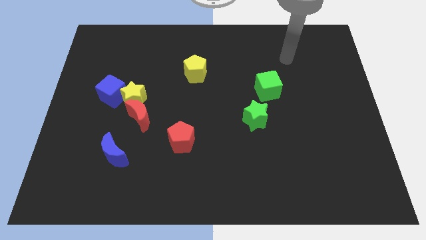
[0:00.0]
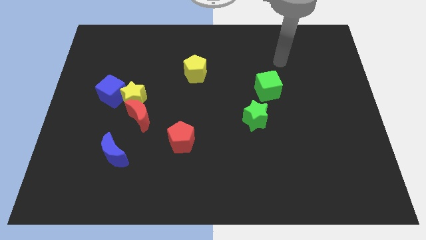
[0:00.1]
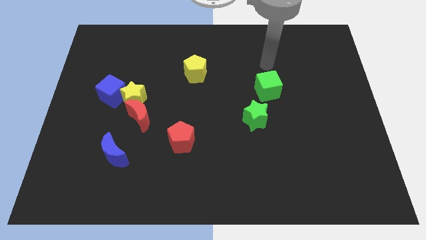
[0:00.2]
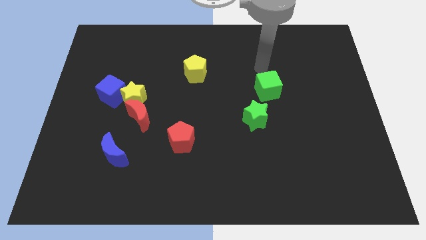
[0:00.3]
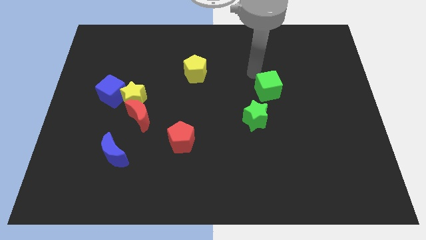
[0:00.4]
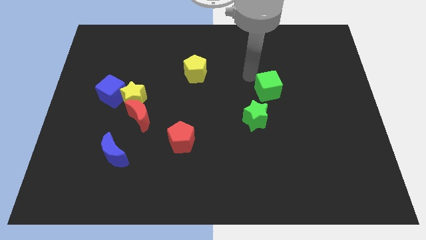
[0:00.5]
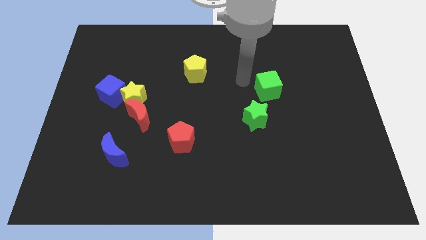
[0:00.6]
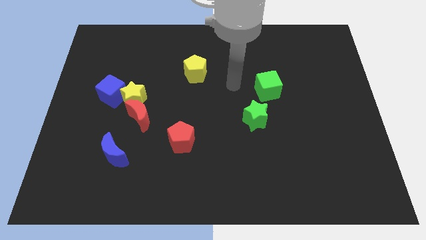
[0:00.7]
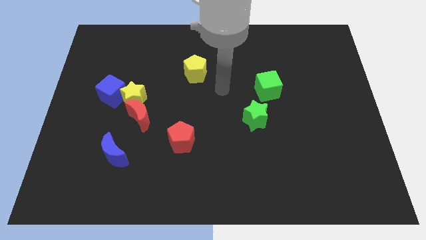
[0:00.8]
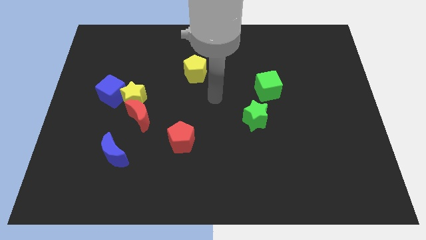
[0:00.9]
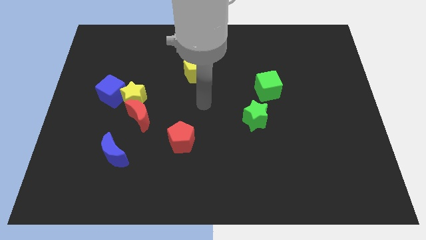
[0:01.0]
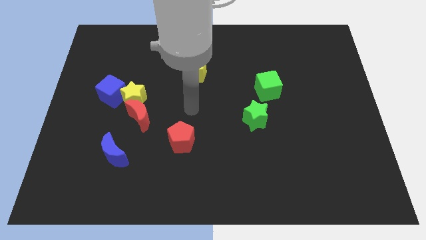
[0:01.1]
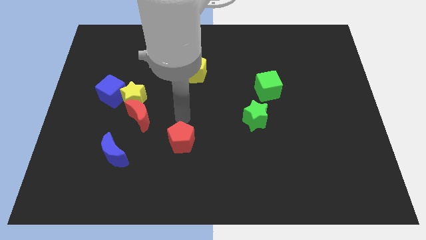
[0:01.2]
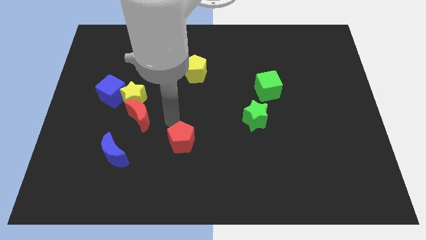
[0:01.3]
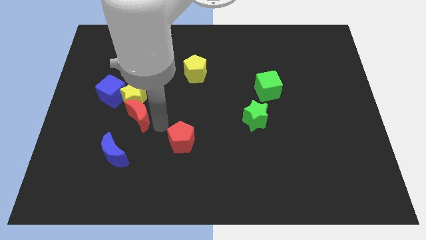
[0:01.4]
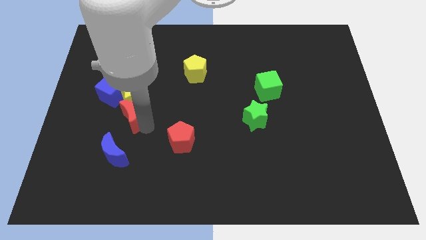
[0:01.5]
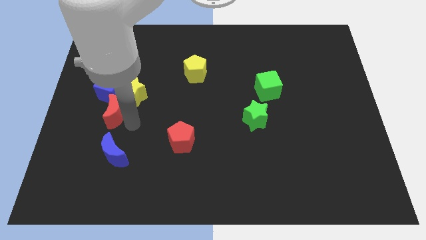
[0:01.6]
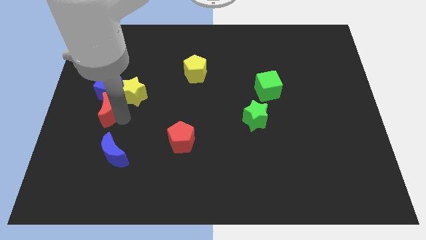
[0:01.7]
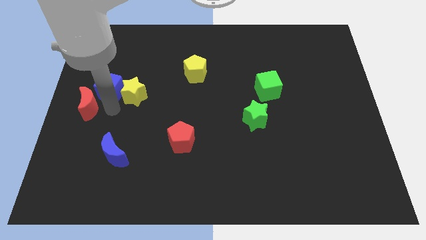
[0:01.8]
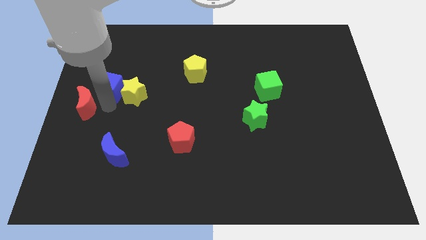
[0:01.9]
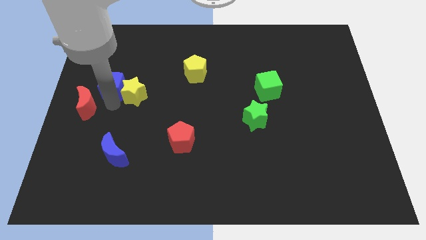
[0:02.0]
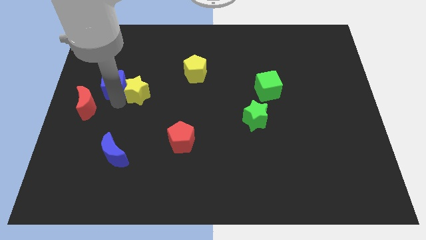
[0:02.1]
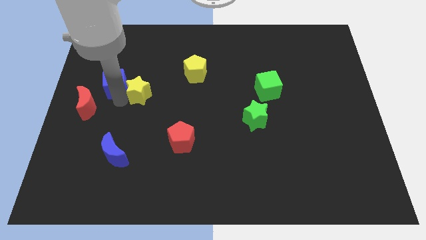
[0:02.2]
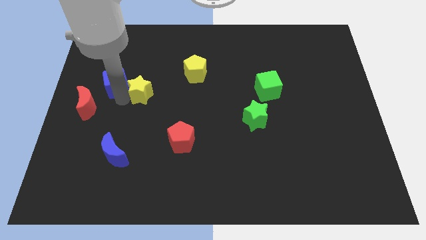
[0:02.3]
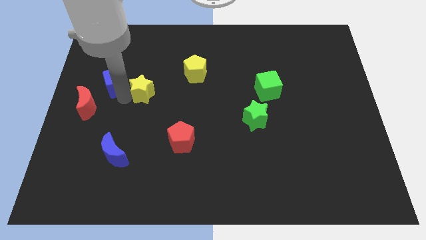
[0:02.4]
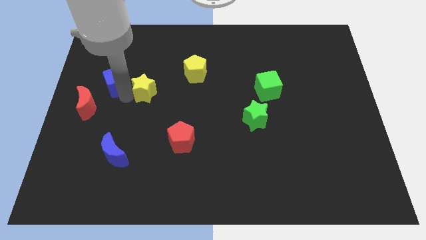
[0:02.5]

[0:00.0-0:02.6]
pull the yellow star apart from the red moon and blue cube

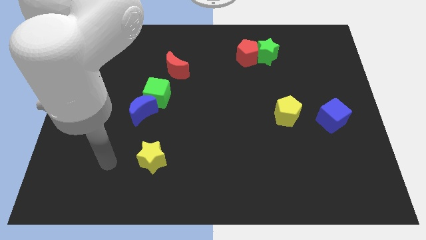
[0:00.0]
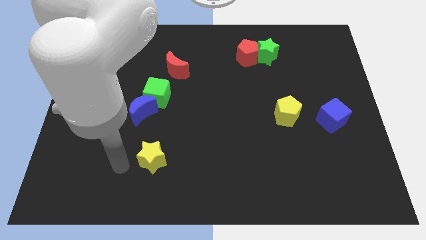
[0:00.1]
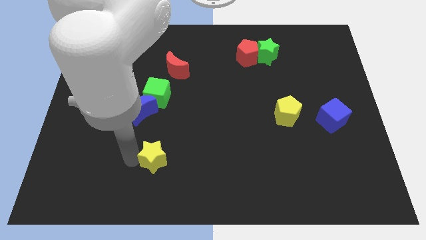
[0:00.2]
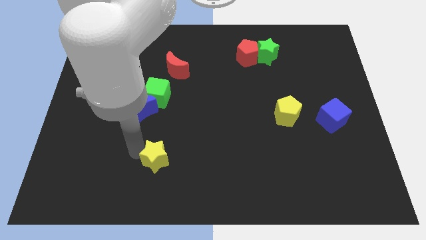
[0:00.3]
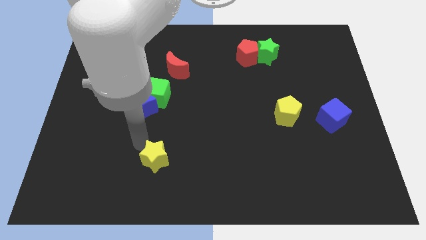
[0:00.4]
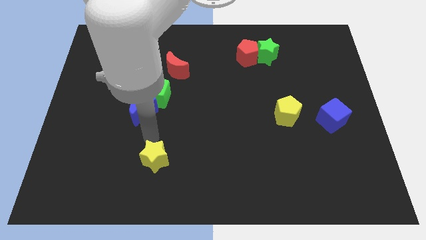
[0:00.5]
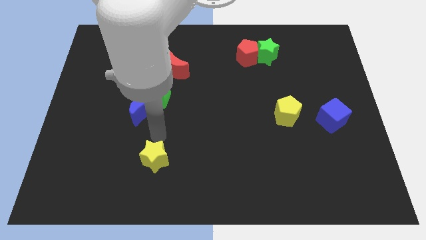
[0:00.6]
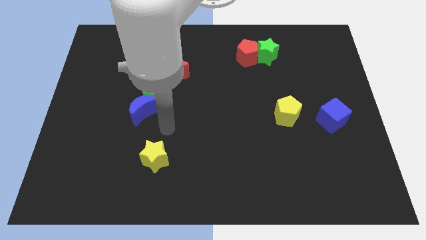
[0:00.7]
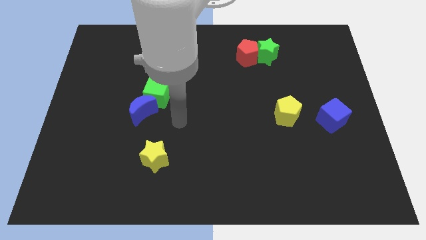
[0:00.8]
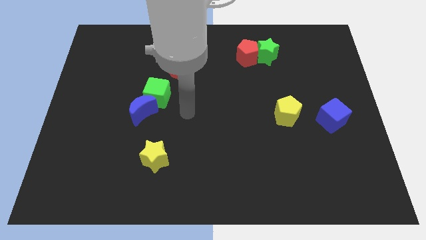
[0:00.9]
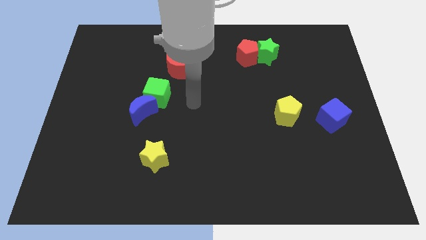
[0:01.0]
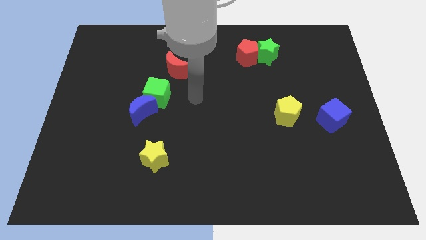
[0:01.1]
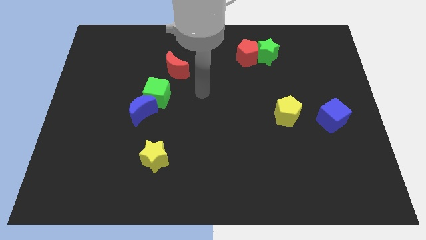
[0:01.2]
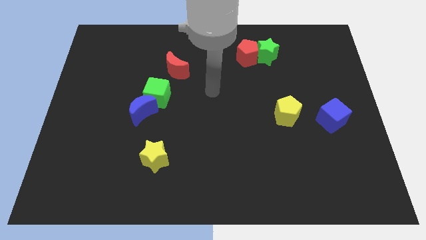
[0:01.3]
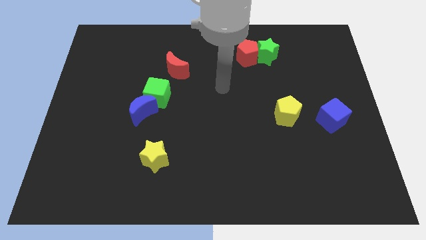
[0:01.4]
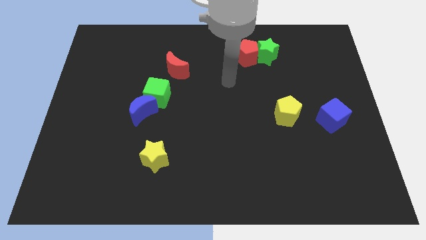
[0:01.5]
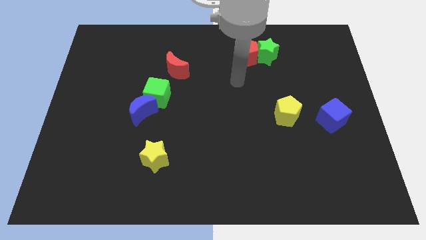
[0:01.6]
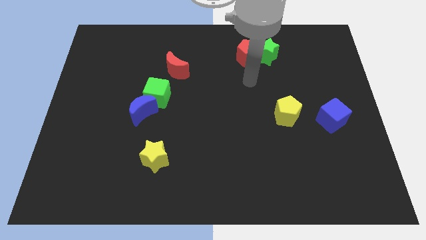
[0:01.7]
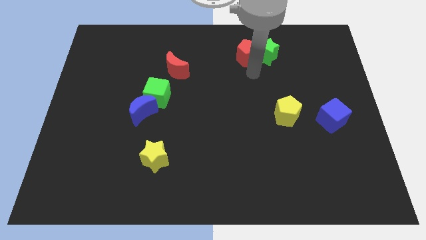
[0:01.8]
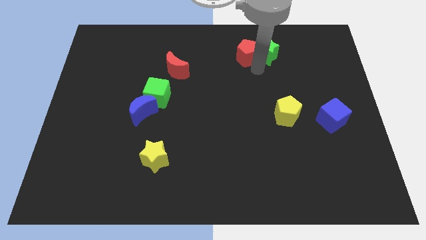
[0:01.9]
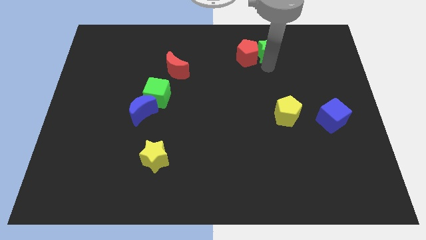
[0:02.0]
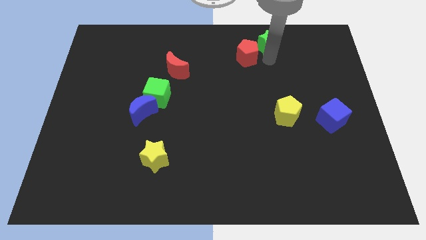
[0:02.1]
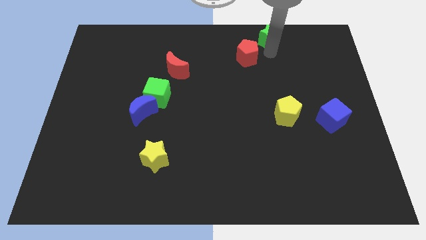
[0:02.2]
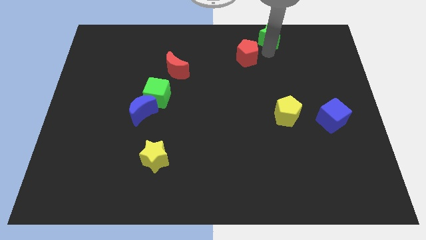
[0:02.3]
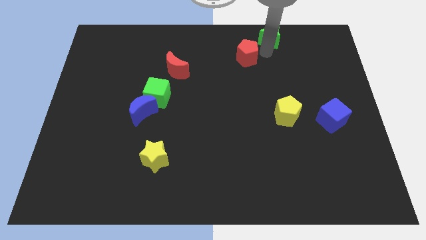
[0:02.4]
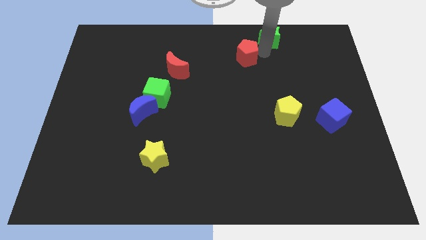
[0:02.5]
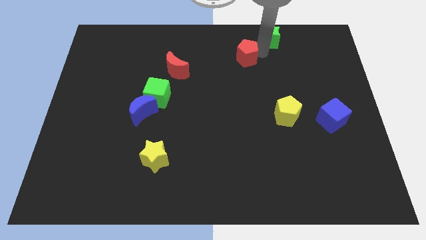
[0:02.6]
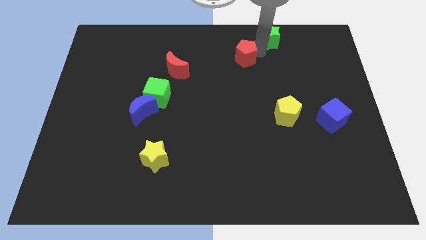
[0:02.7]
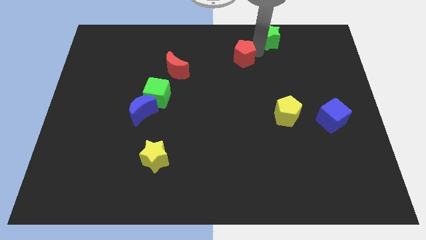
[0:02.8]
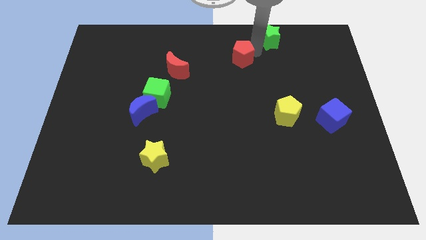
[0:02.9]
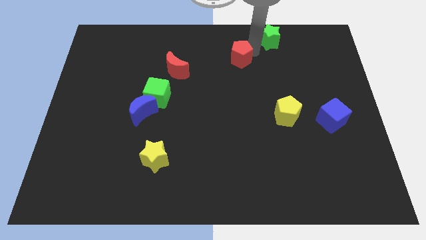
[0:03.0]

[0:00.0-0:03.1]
move the red pentagon away from the green star

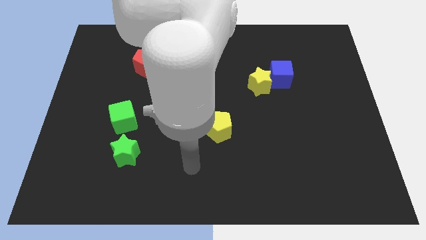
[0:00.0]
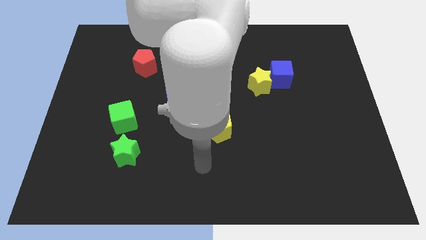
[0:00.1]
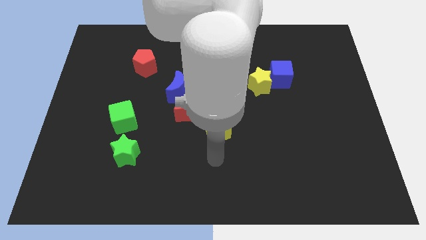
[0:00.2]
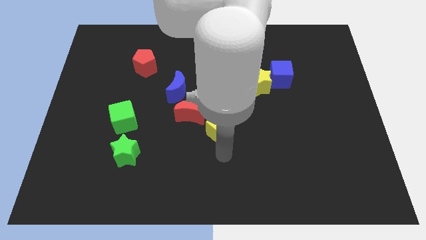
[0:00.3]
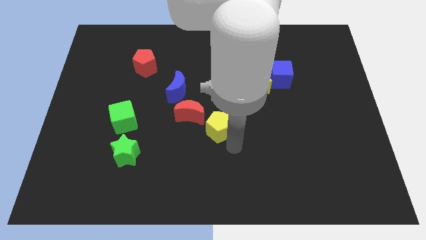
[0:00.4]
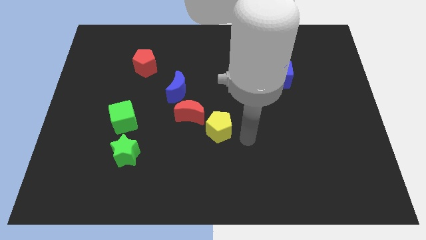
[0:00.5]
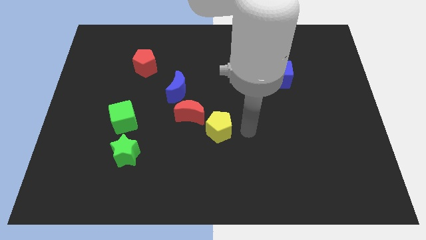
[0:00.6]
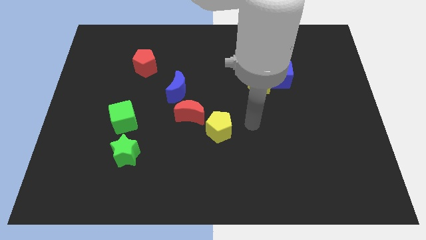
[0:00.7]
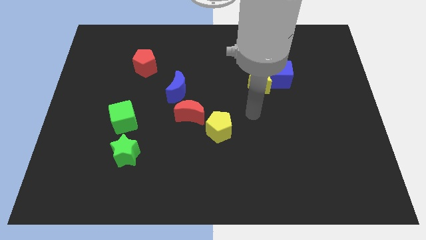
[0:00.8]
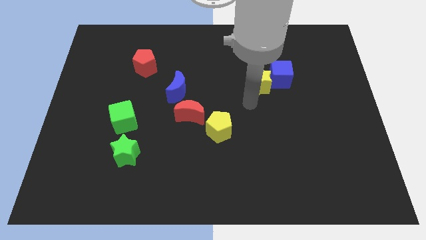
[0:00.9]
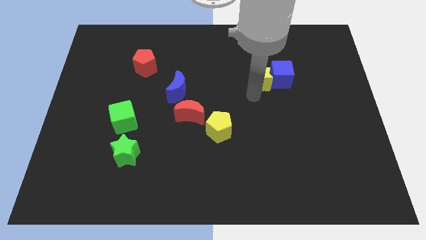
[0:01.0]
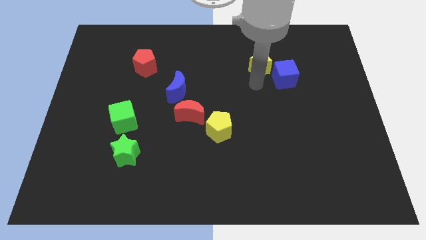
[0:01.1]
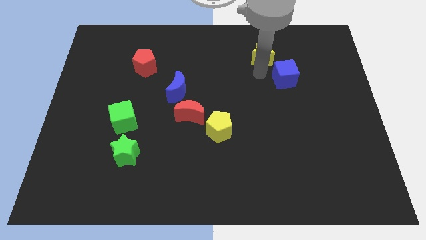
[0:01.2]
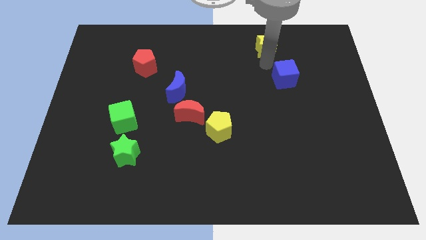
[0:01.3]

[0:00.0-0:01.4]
move the blue cube away from the yellow star

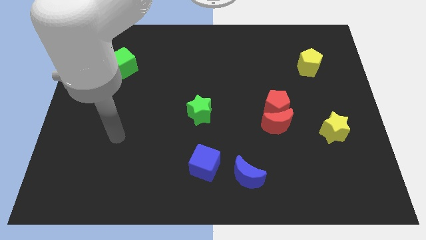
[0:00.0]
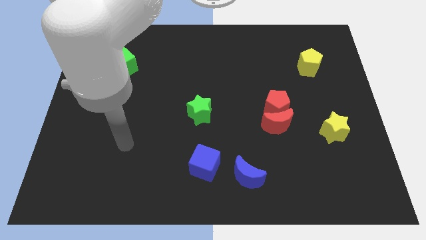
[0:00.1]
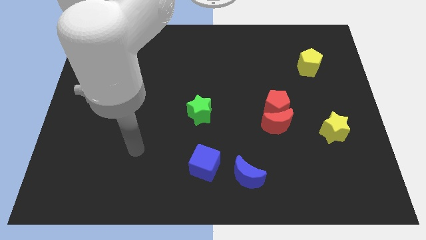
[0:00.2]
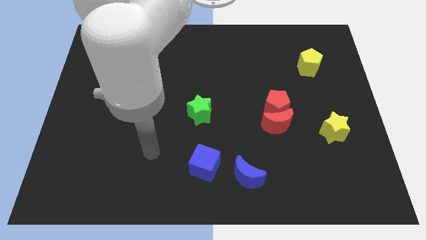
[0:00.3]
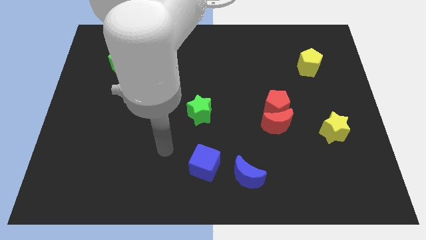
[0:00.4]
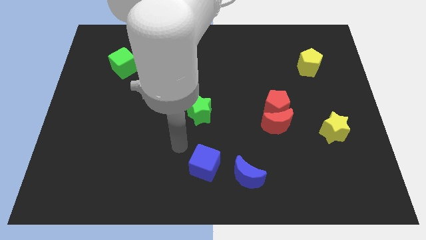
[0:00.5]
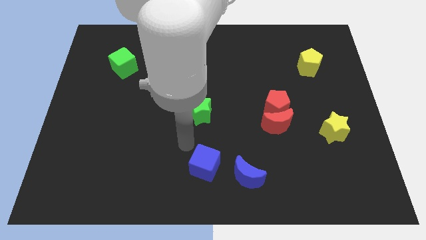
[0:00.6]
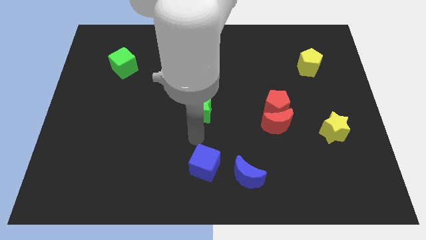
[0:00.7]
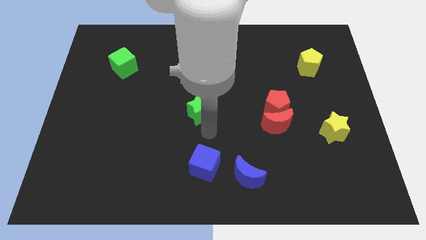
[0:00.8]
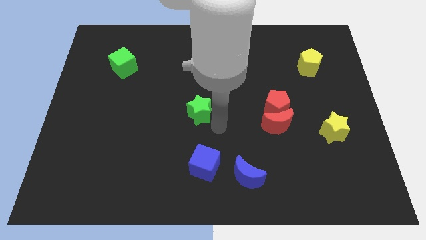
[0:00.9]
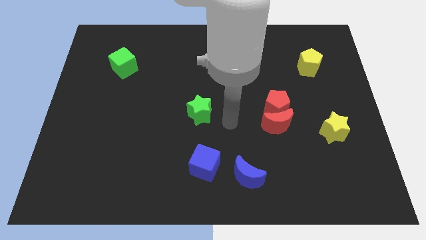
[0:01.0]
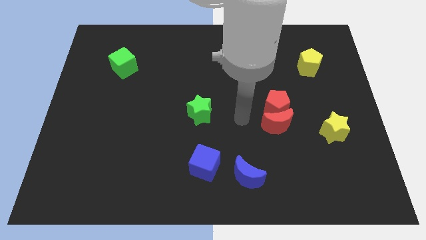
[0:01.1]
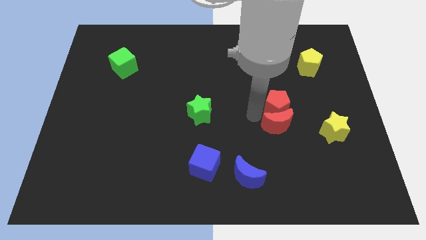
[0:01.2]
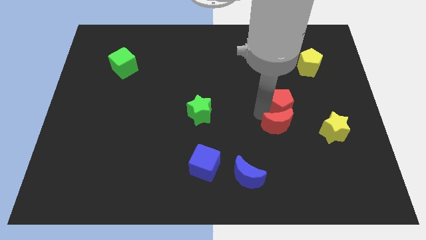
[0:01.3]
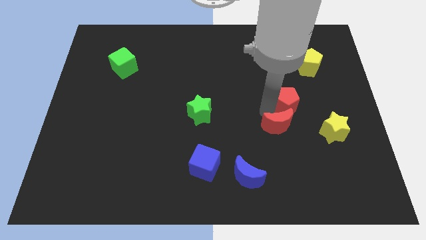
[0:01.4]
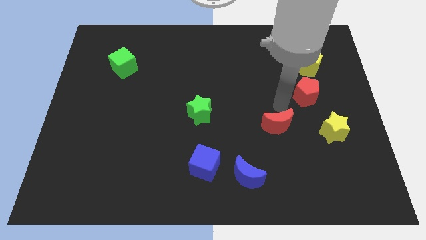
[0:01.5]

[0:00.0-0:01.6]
move the red moon away from the red pentagon

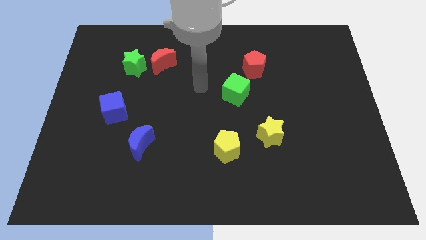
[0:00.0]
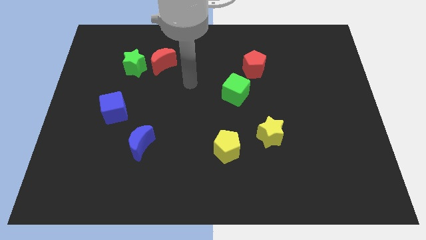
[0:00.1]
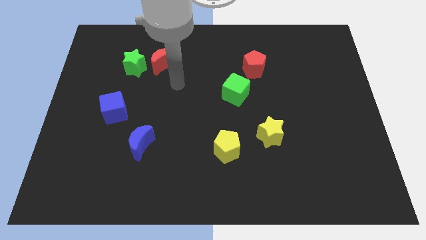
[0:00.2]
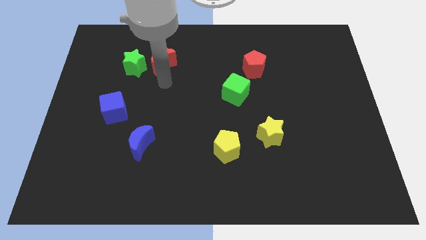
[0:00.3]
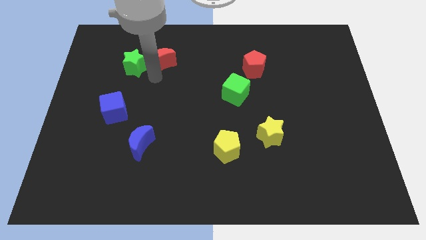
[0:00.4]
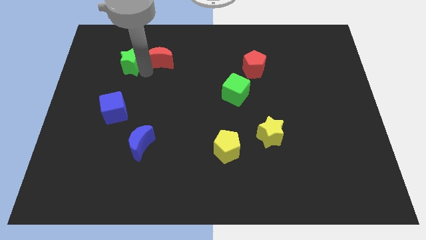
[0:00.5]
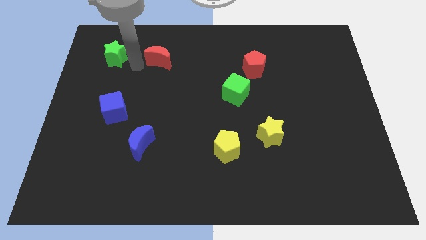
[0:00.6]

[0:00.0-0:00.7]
pull the red moon apart from the green star
